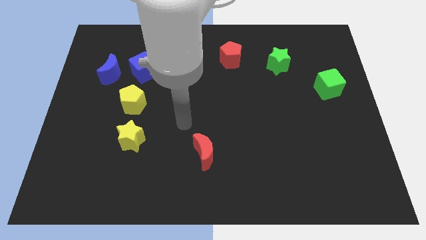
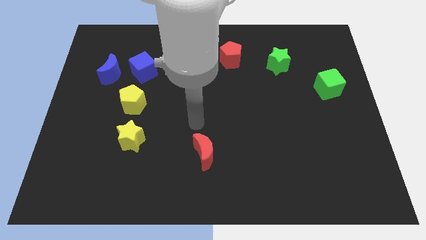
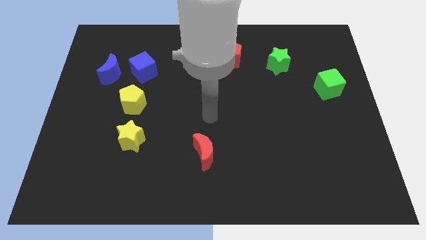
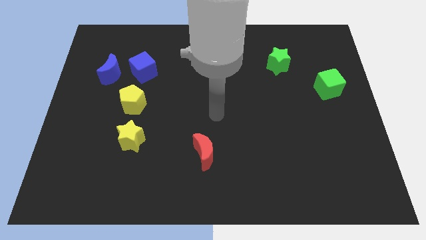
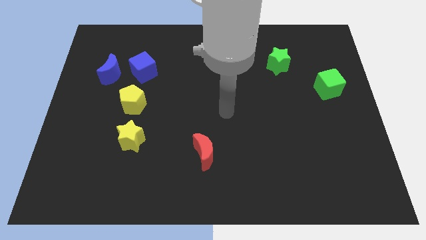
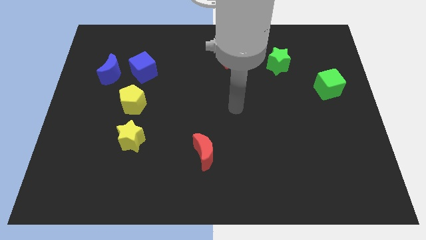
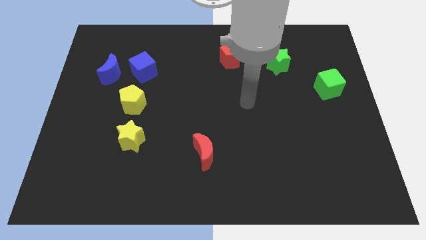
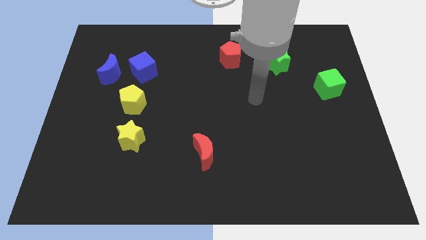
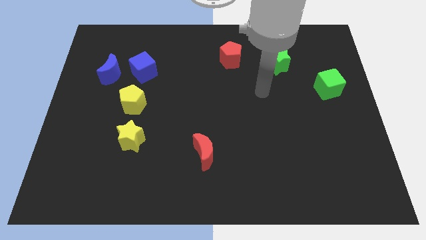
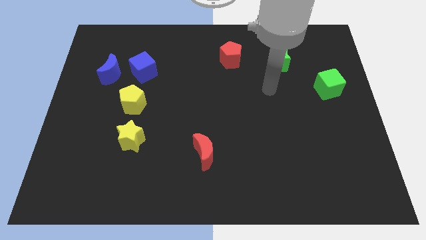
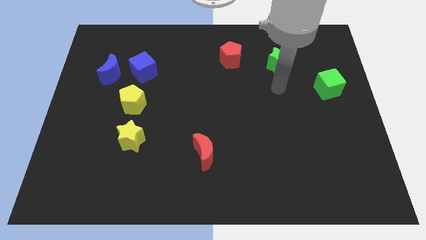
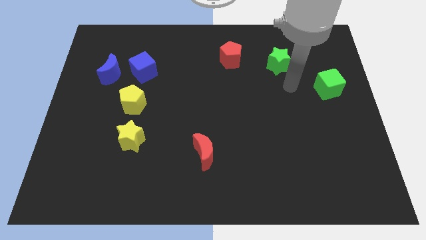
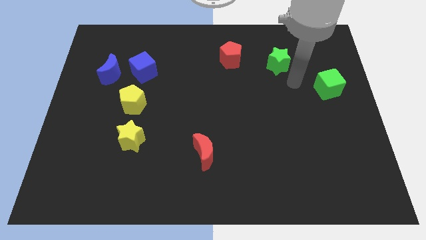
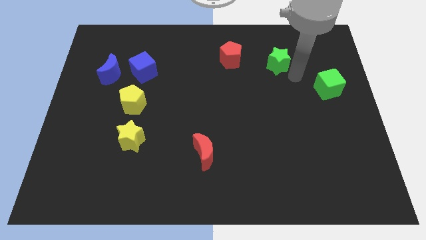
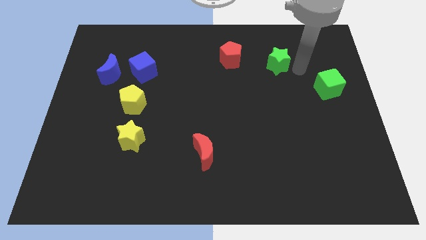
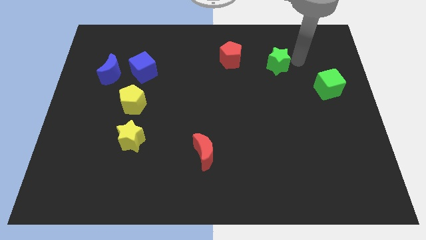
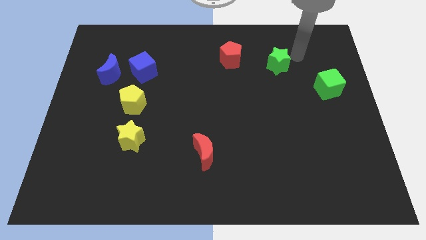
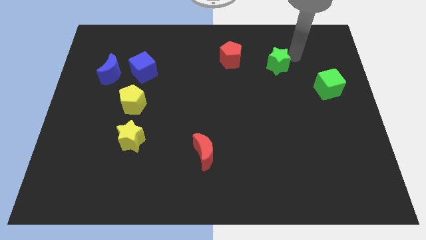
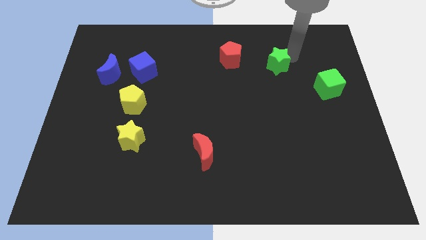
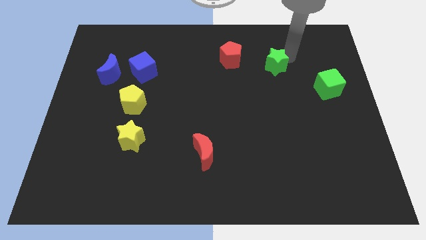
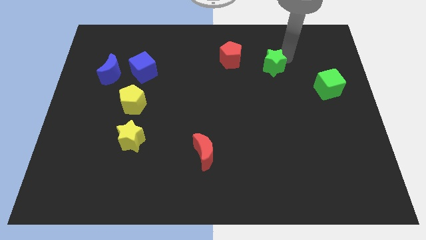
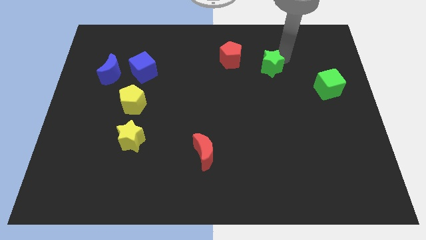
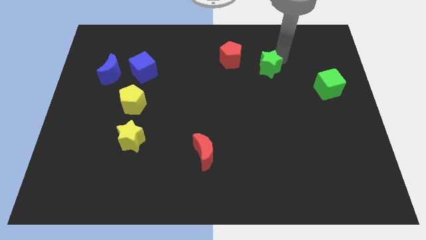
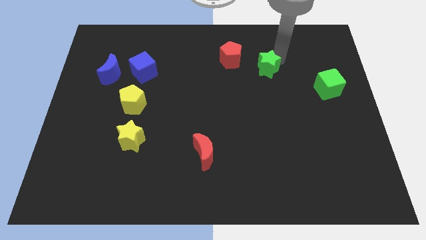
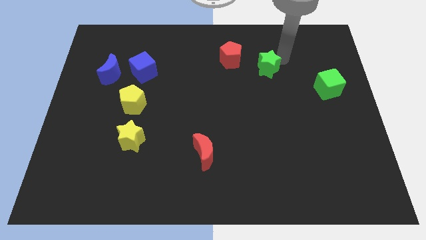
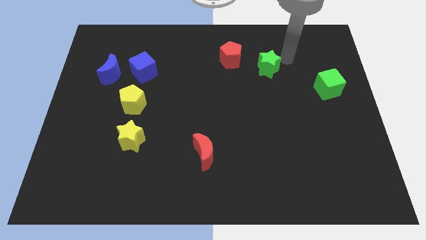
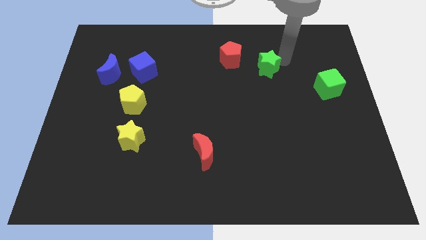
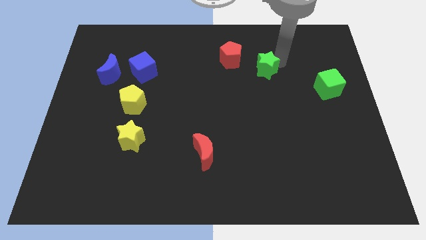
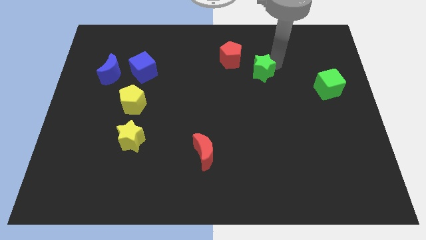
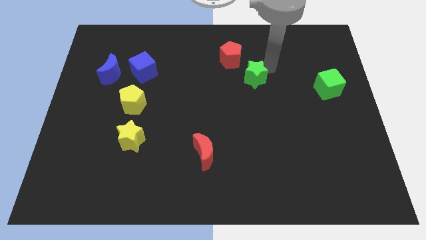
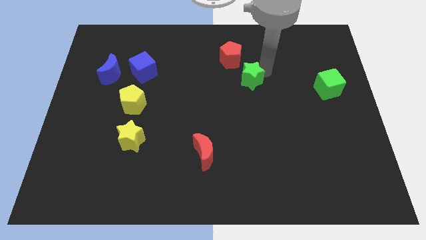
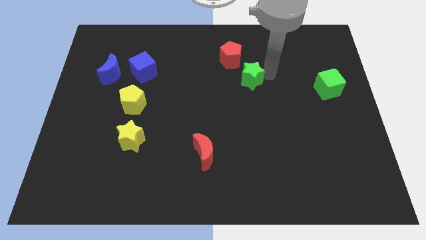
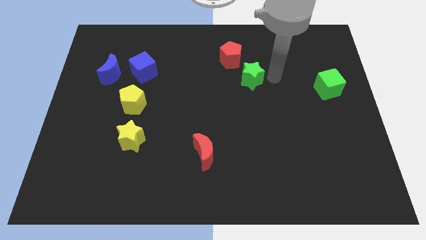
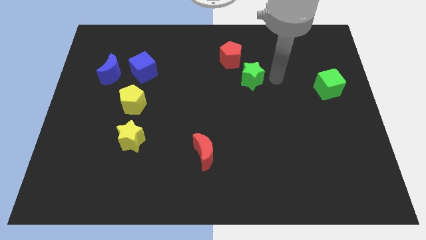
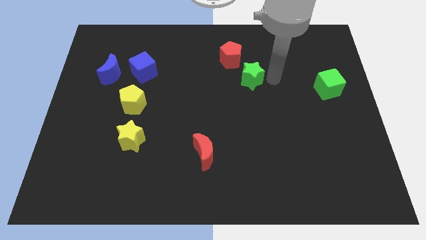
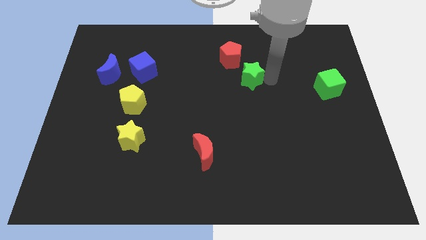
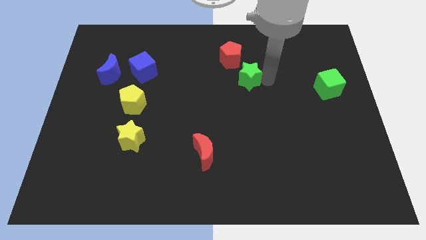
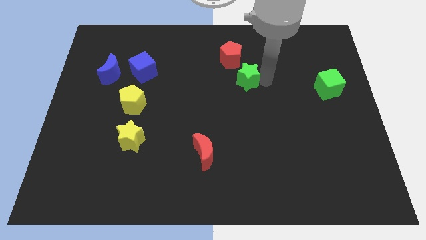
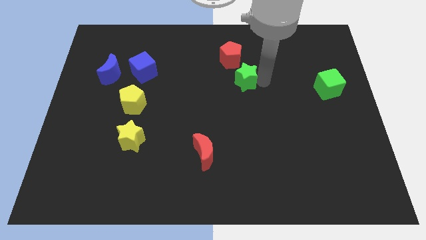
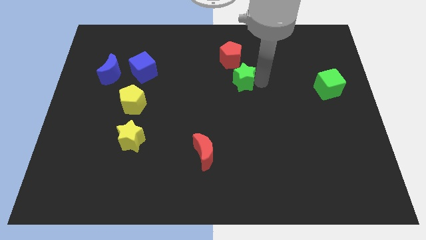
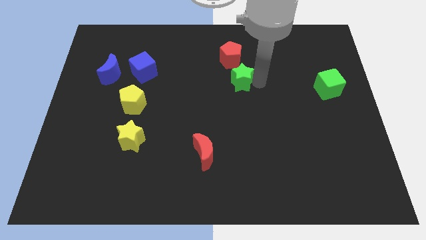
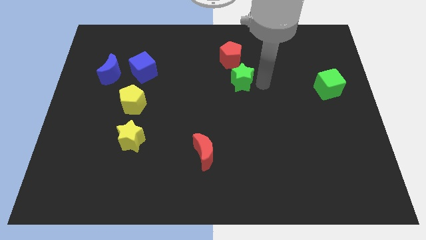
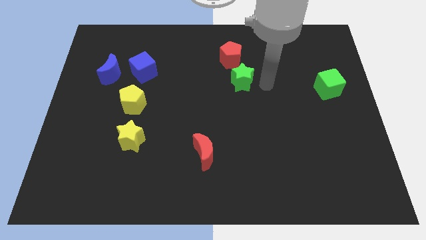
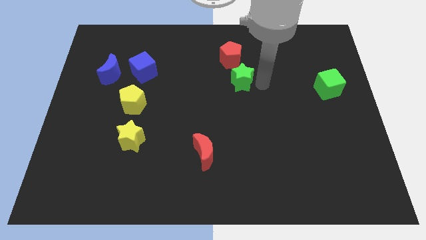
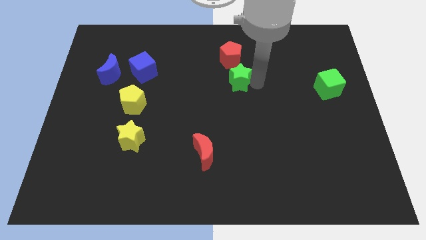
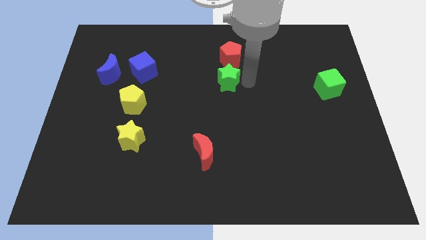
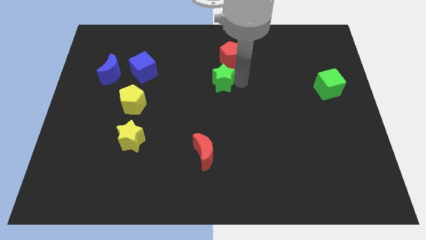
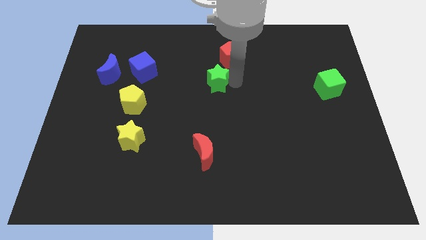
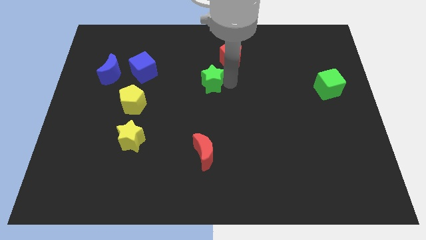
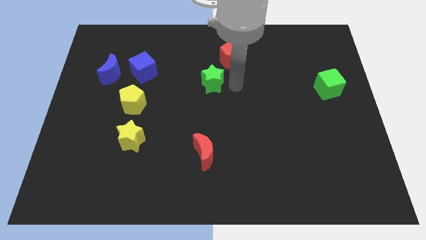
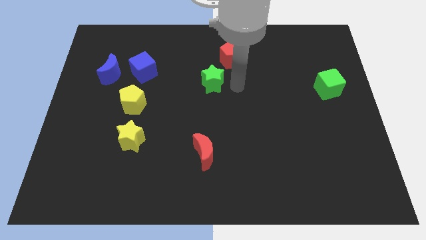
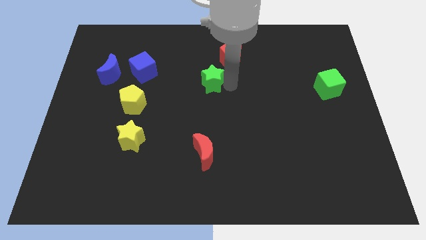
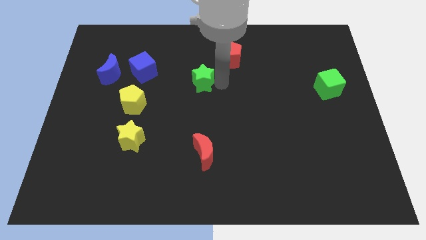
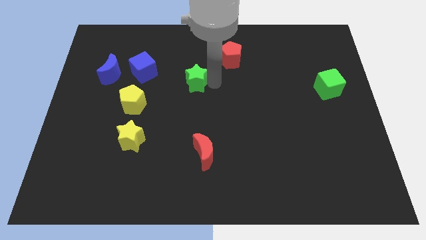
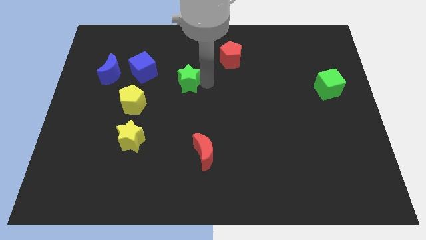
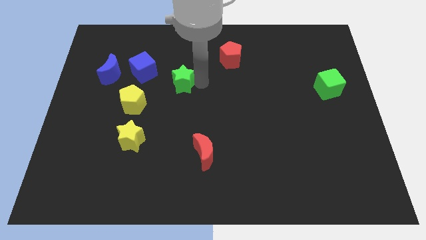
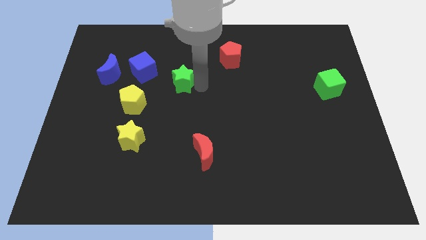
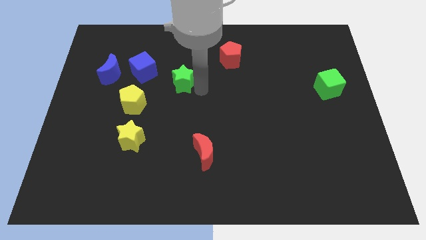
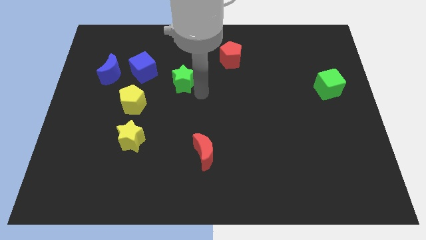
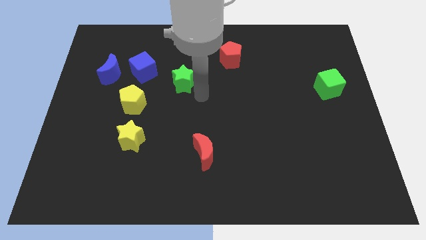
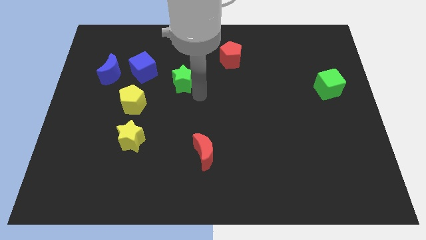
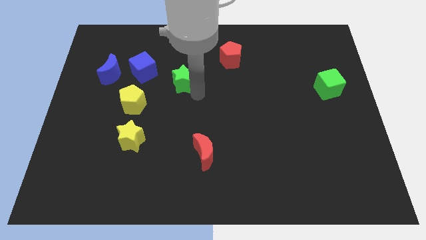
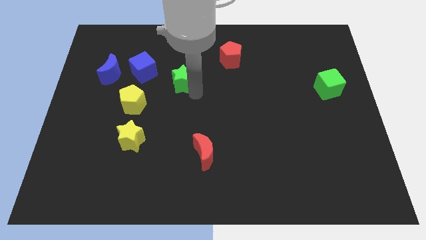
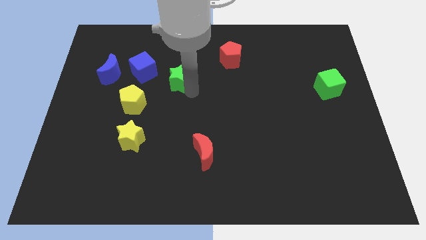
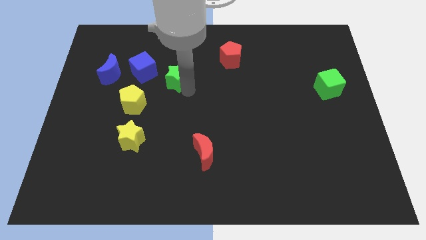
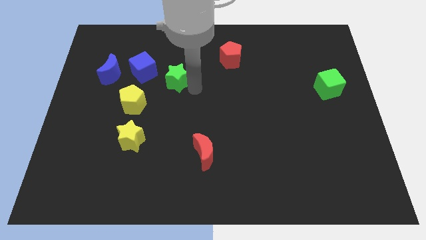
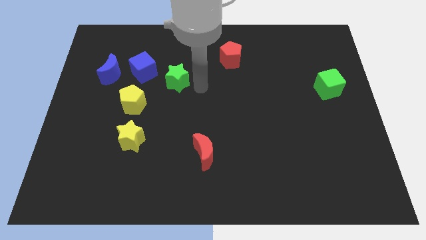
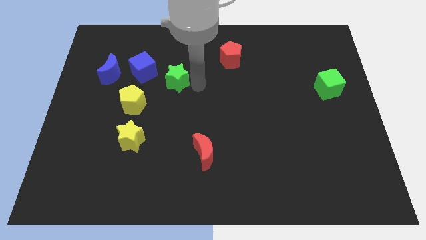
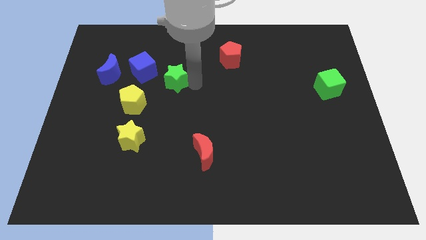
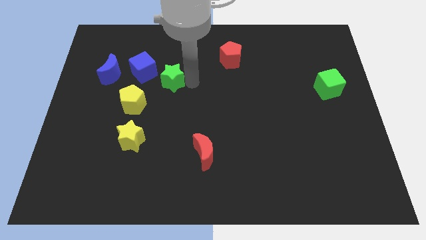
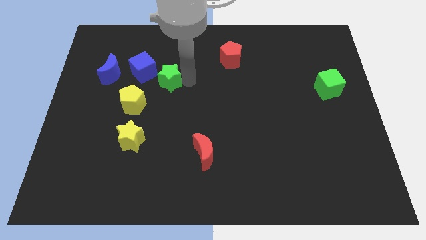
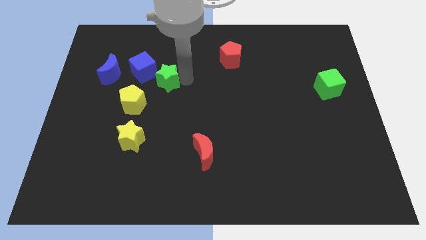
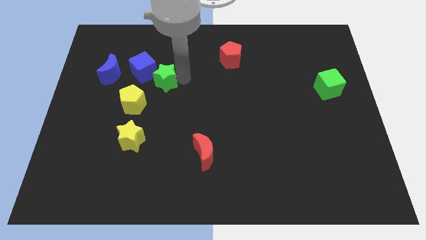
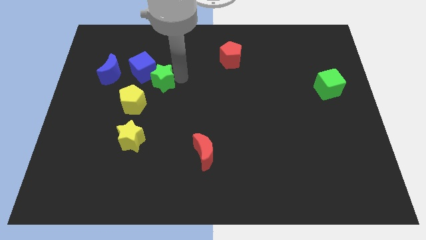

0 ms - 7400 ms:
slide the green star to the blue cube
